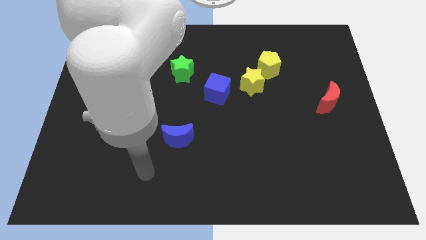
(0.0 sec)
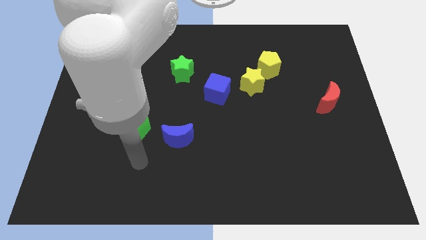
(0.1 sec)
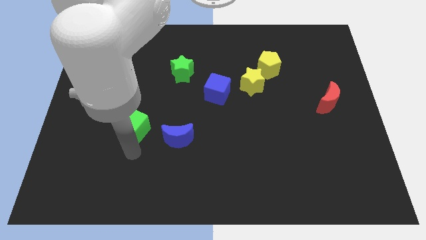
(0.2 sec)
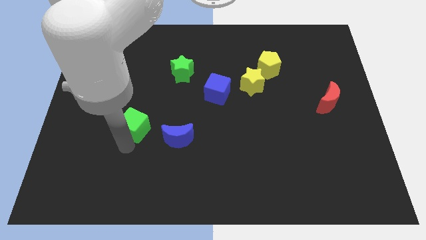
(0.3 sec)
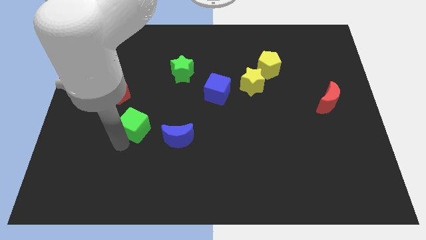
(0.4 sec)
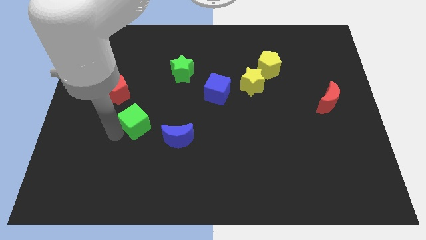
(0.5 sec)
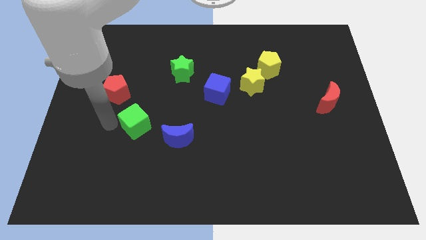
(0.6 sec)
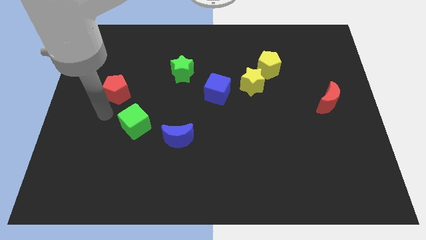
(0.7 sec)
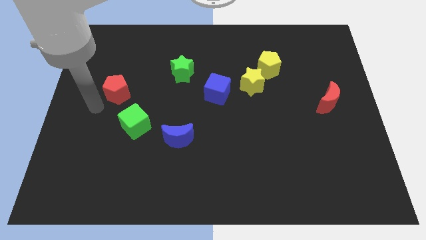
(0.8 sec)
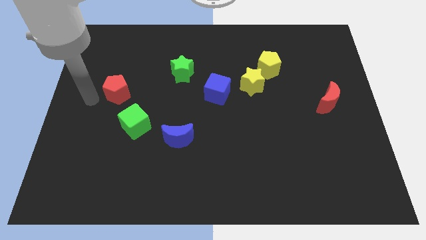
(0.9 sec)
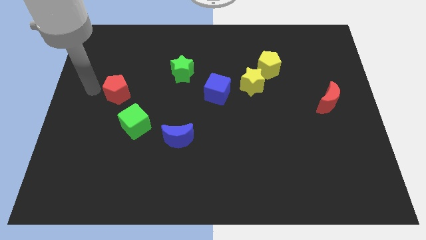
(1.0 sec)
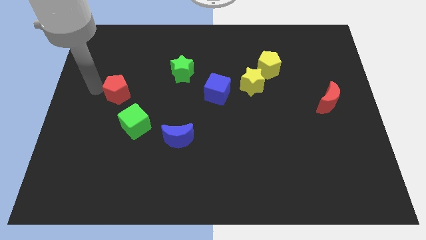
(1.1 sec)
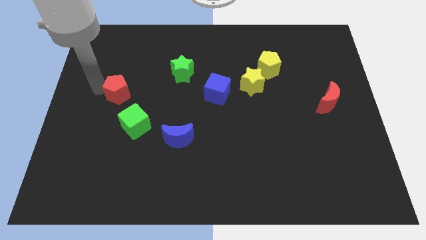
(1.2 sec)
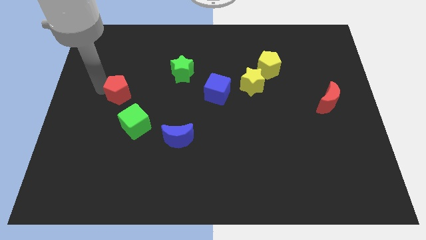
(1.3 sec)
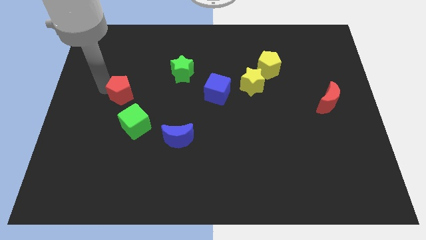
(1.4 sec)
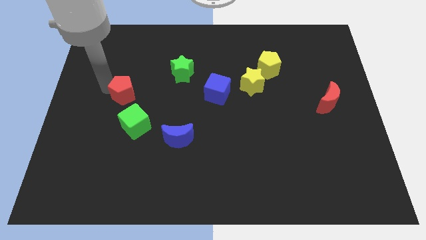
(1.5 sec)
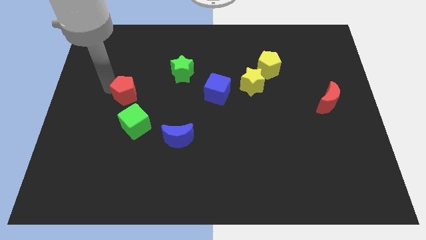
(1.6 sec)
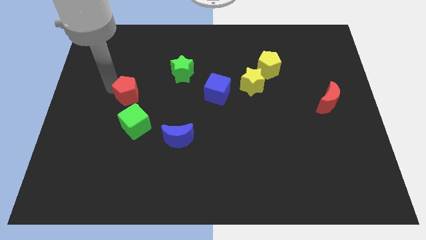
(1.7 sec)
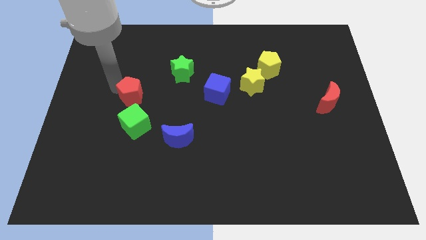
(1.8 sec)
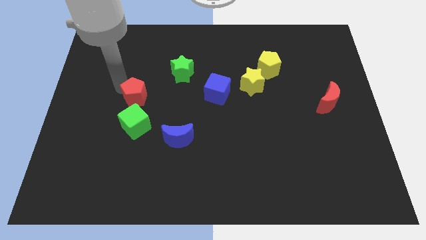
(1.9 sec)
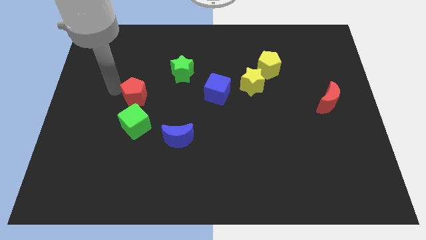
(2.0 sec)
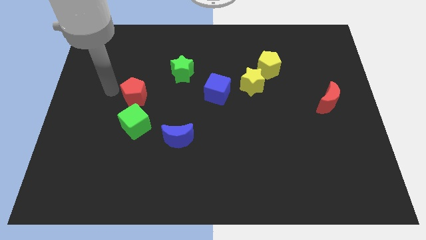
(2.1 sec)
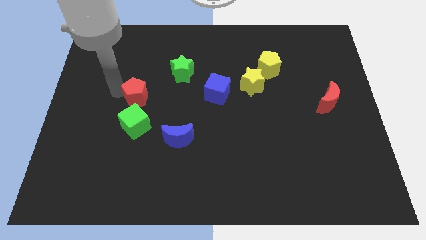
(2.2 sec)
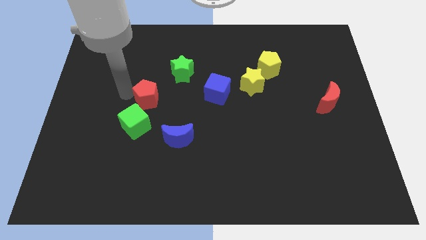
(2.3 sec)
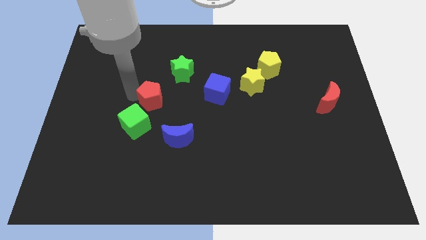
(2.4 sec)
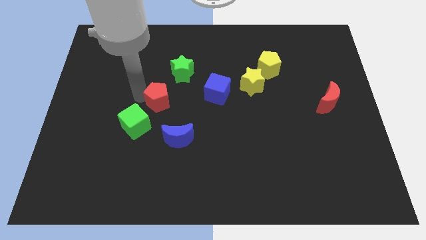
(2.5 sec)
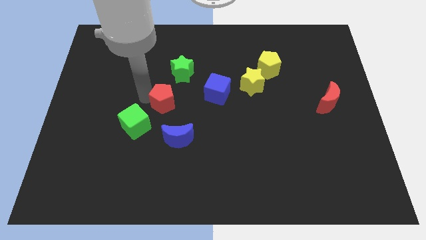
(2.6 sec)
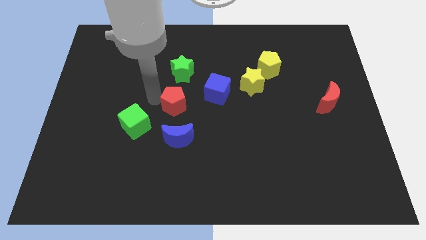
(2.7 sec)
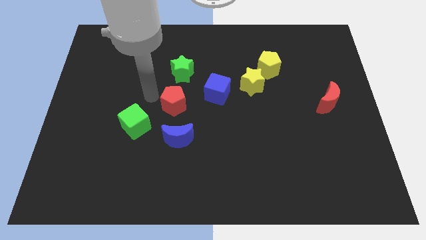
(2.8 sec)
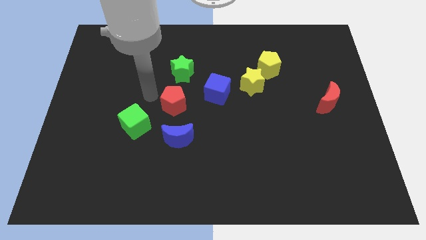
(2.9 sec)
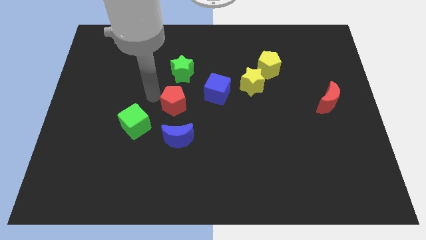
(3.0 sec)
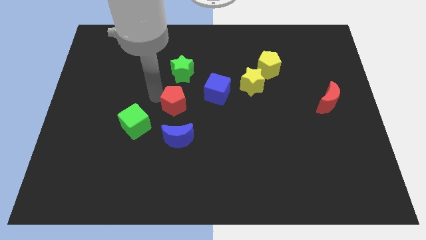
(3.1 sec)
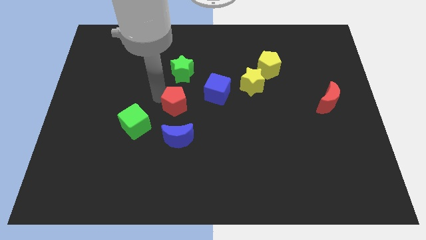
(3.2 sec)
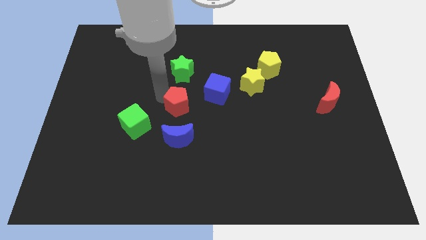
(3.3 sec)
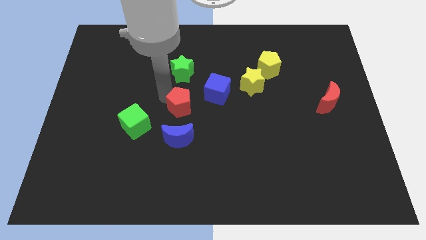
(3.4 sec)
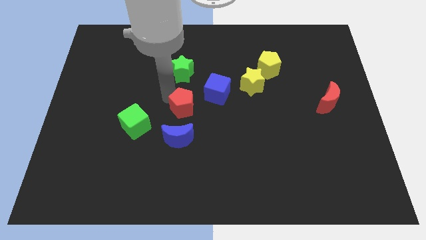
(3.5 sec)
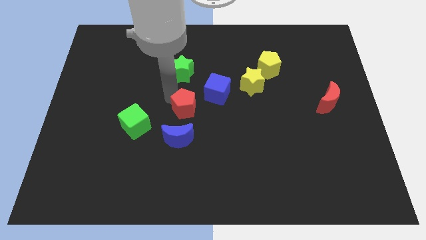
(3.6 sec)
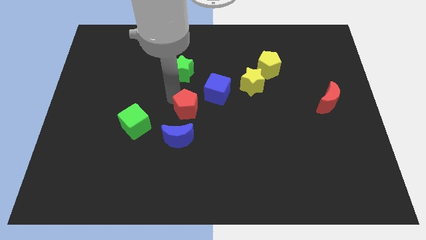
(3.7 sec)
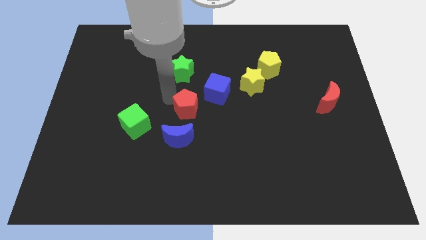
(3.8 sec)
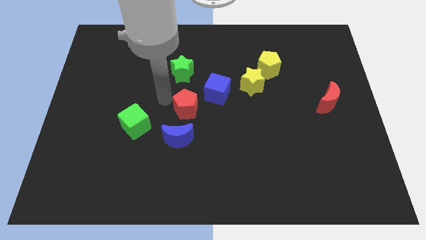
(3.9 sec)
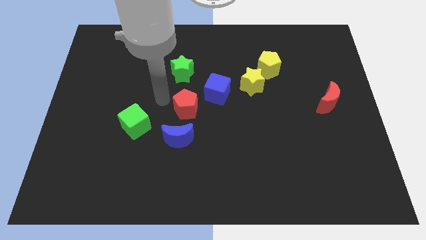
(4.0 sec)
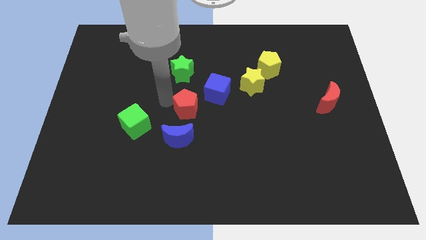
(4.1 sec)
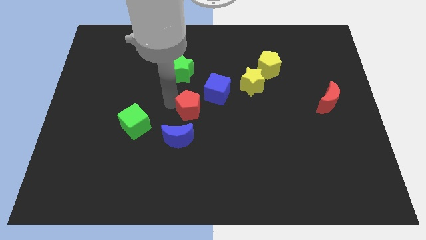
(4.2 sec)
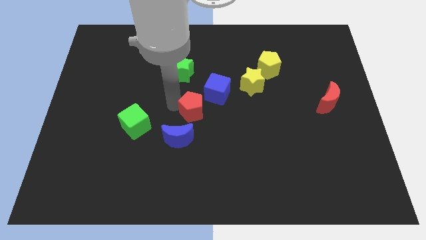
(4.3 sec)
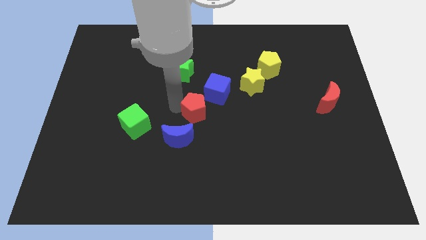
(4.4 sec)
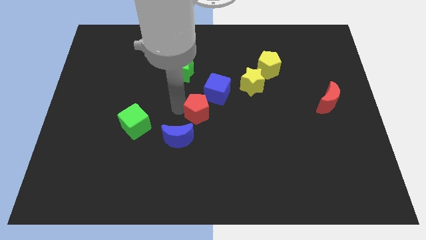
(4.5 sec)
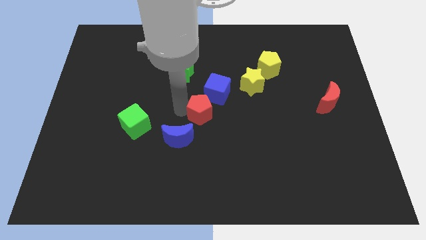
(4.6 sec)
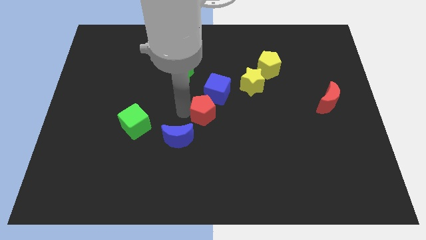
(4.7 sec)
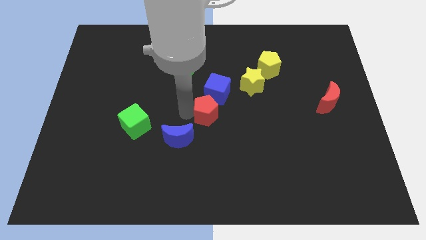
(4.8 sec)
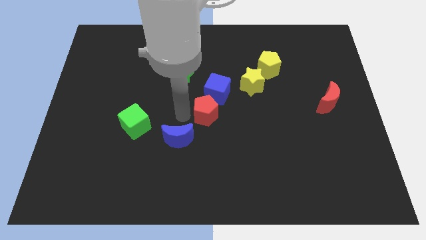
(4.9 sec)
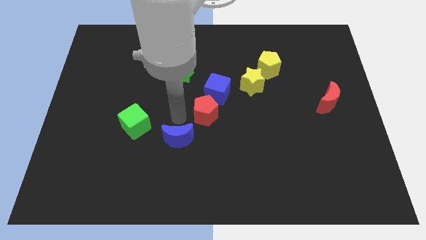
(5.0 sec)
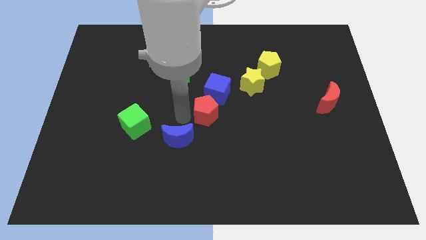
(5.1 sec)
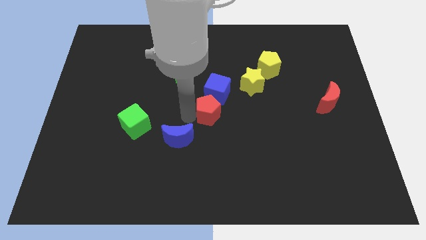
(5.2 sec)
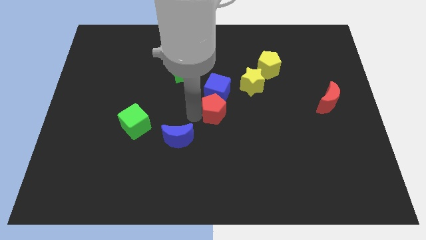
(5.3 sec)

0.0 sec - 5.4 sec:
put the red pentagon diagonally down and to the right of the blue cube

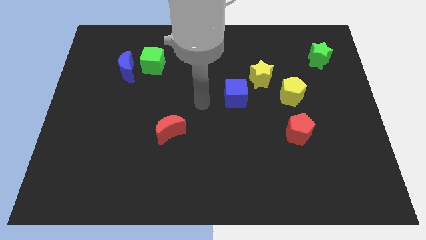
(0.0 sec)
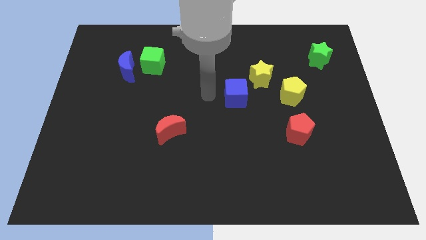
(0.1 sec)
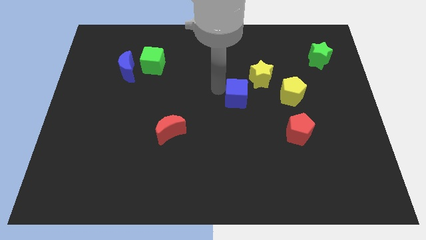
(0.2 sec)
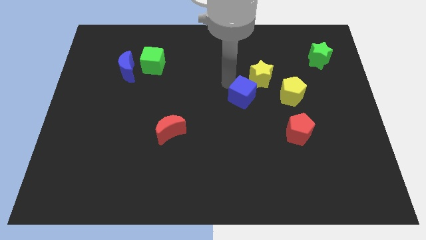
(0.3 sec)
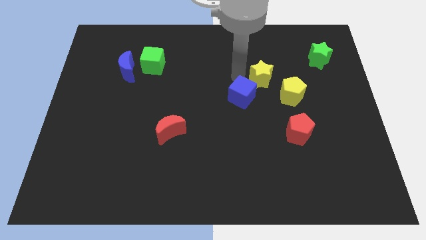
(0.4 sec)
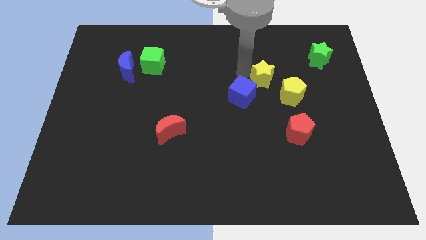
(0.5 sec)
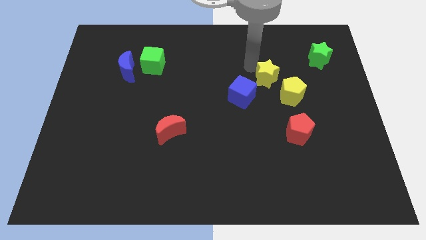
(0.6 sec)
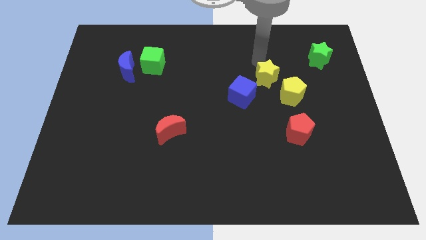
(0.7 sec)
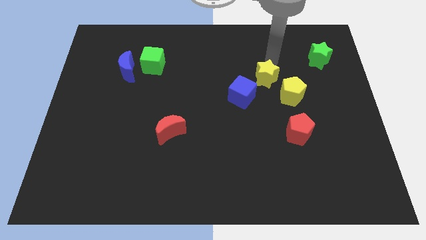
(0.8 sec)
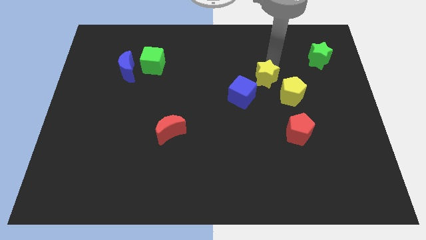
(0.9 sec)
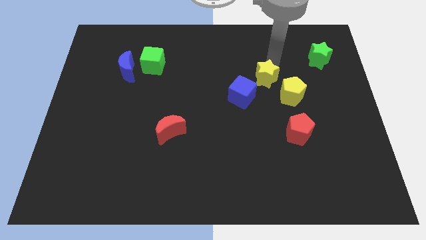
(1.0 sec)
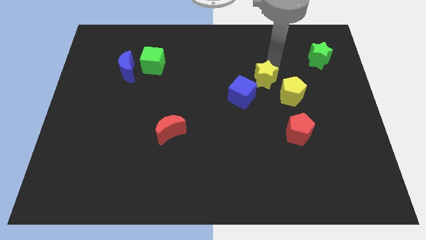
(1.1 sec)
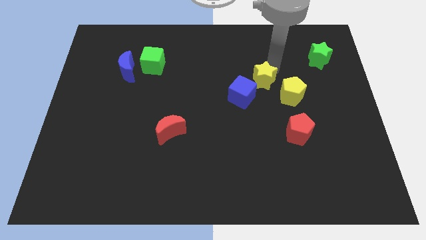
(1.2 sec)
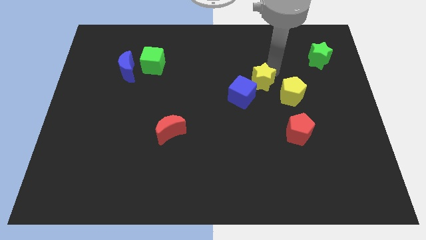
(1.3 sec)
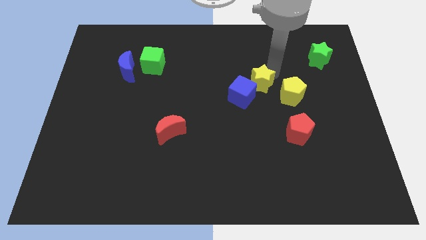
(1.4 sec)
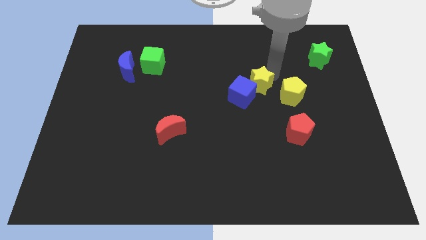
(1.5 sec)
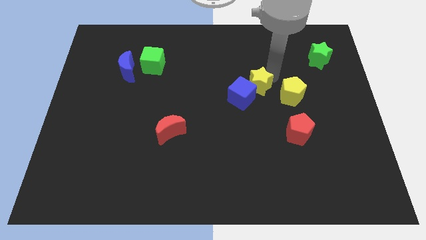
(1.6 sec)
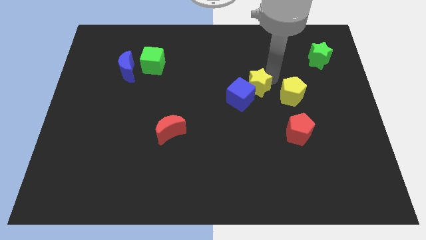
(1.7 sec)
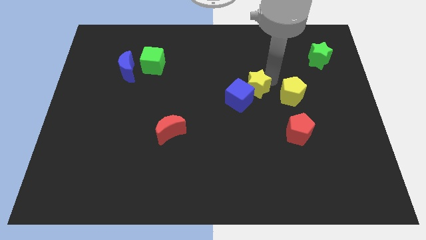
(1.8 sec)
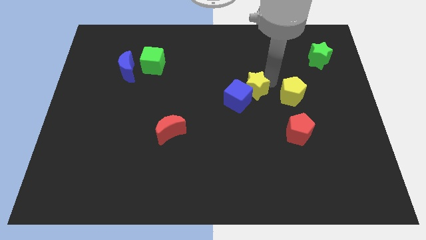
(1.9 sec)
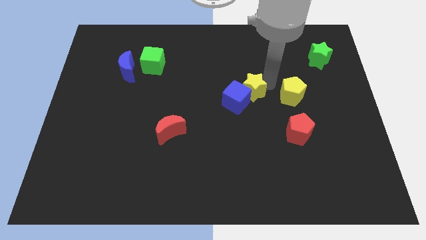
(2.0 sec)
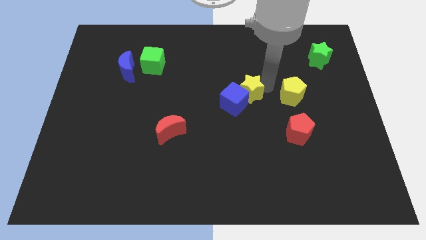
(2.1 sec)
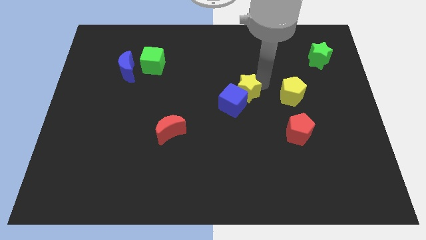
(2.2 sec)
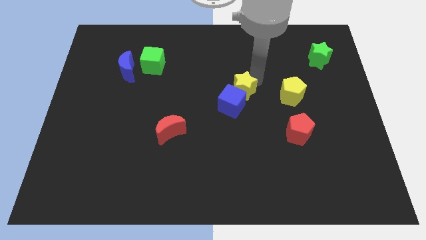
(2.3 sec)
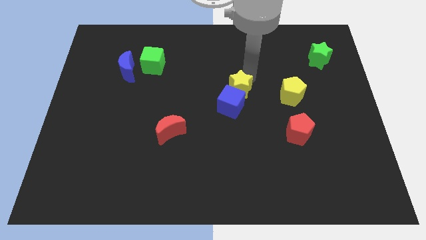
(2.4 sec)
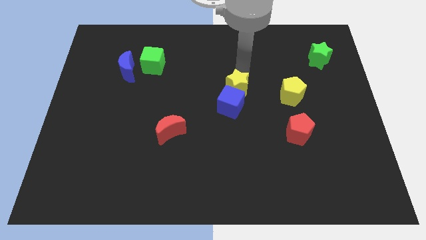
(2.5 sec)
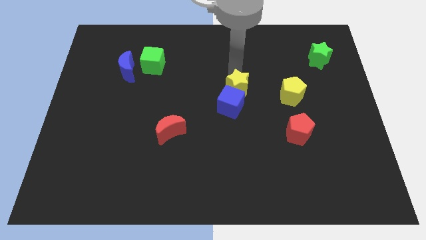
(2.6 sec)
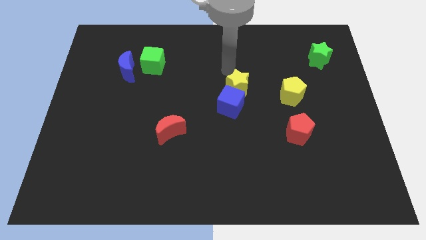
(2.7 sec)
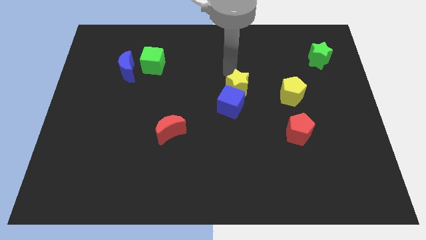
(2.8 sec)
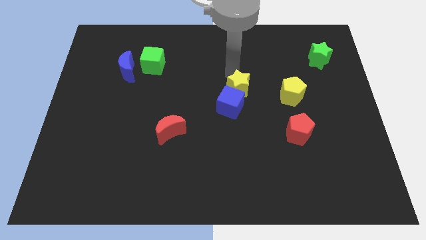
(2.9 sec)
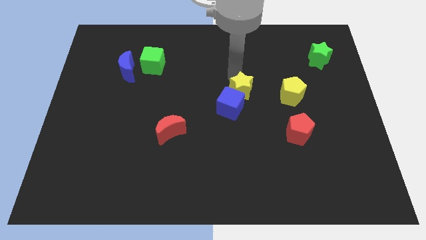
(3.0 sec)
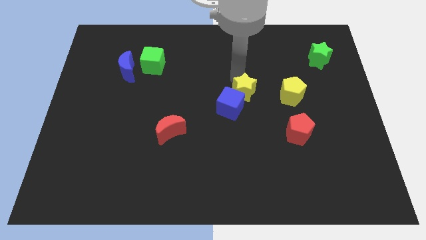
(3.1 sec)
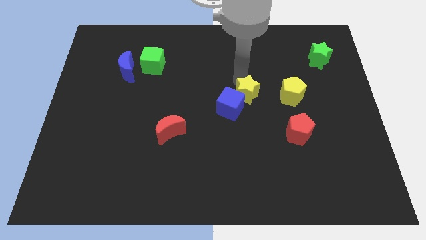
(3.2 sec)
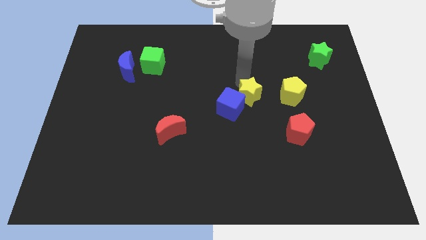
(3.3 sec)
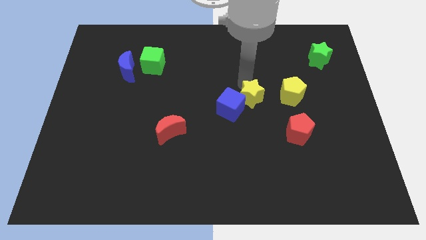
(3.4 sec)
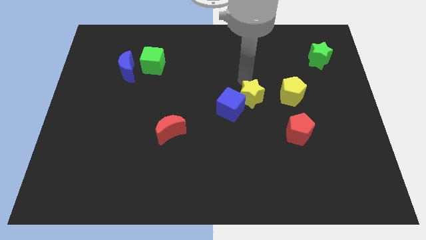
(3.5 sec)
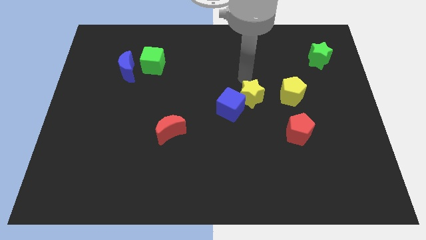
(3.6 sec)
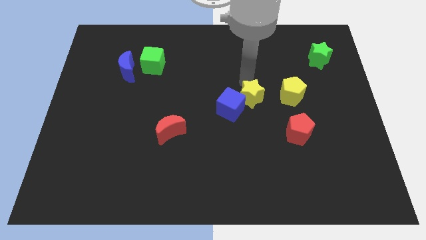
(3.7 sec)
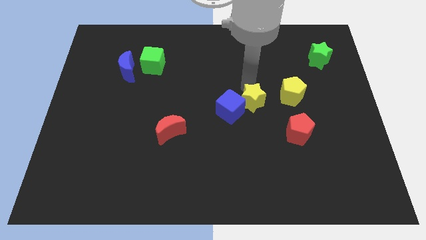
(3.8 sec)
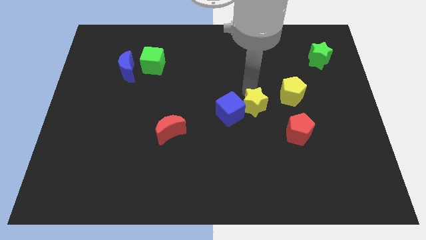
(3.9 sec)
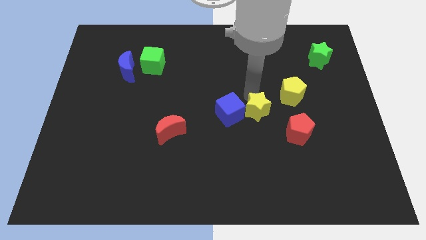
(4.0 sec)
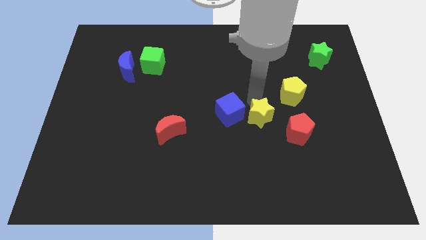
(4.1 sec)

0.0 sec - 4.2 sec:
move the yellow star to the left side of the red pentagon
